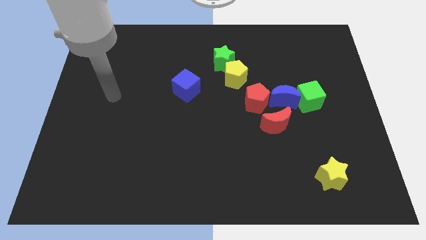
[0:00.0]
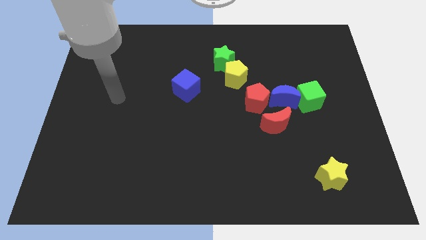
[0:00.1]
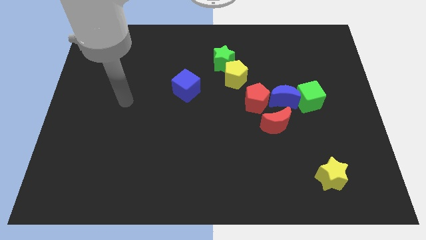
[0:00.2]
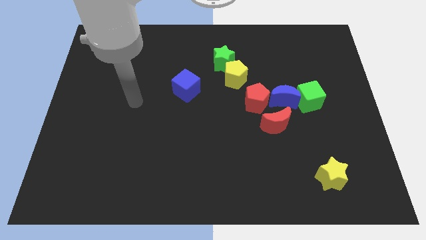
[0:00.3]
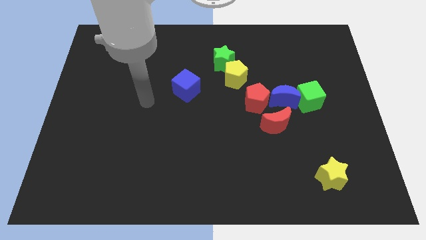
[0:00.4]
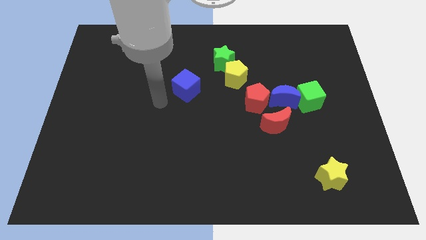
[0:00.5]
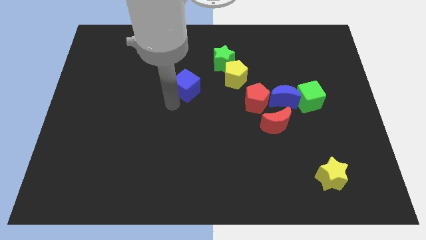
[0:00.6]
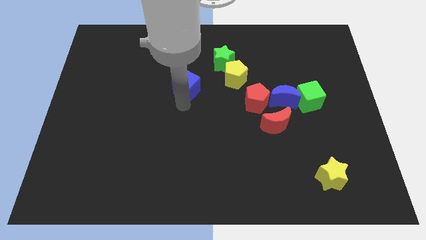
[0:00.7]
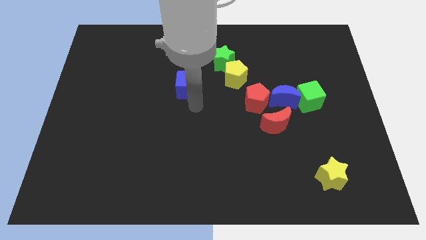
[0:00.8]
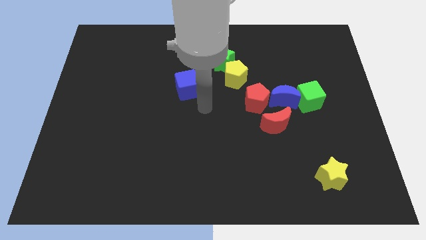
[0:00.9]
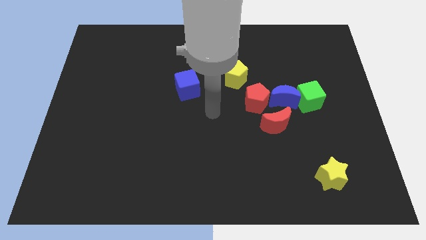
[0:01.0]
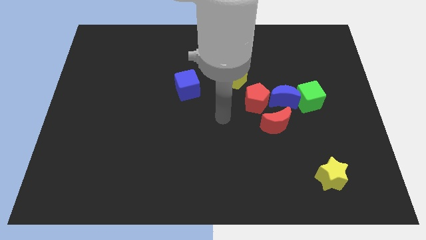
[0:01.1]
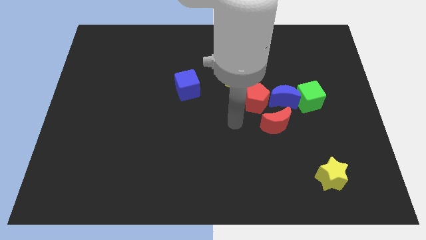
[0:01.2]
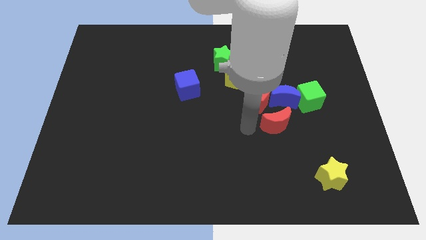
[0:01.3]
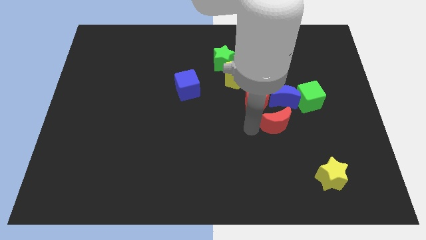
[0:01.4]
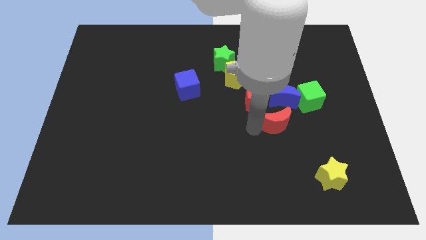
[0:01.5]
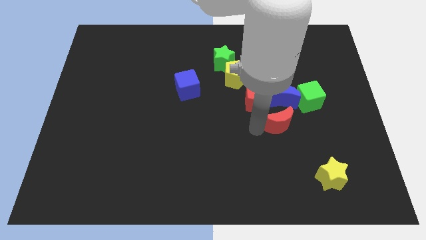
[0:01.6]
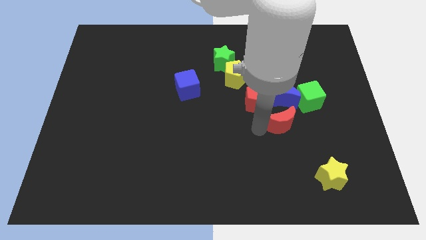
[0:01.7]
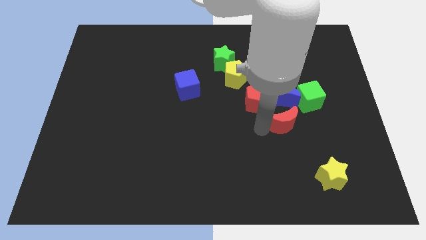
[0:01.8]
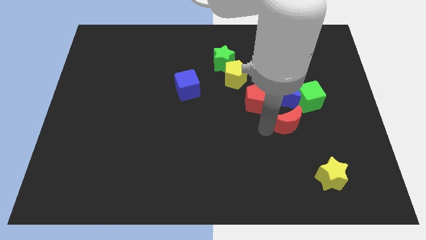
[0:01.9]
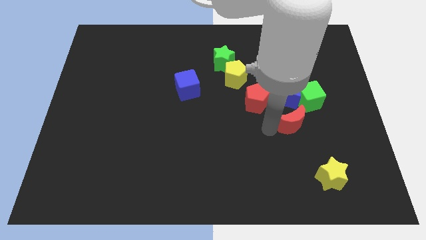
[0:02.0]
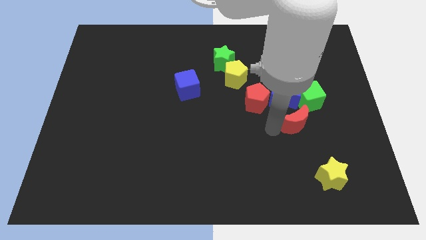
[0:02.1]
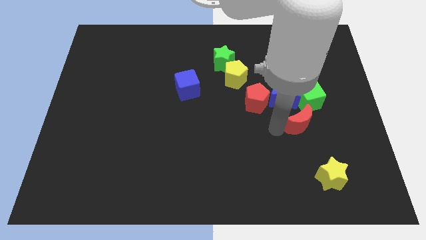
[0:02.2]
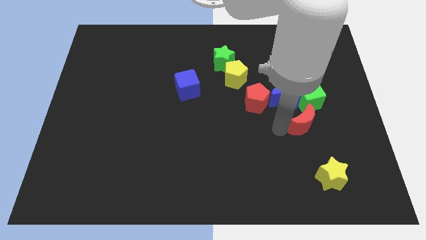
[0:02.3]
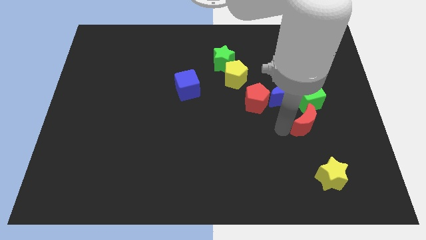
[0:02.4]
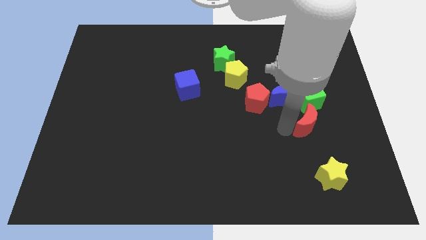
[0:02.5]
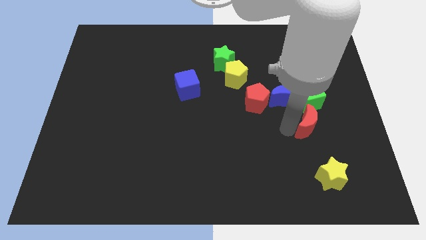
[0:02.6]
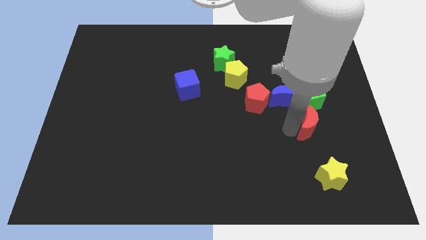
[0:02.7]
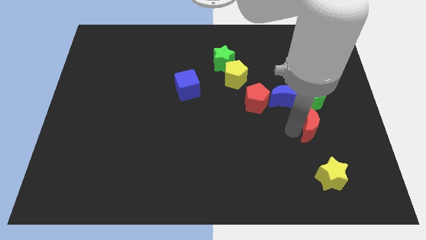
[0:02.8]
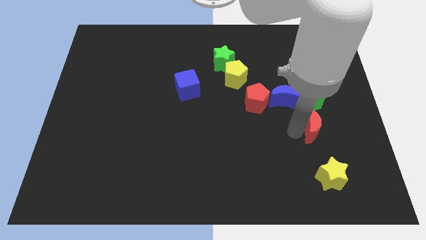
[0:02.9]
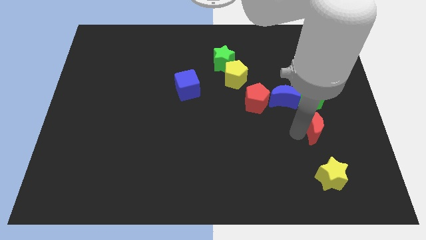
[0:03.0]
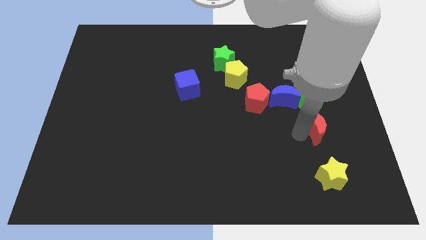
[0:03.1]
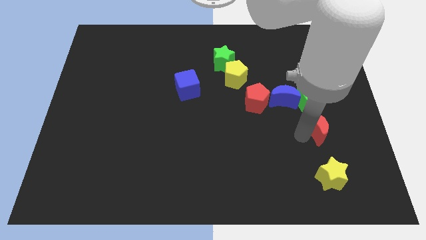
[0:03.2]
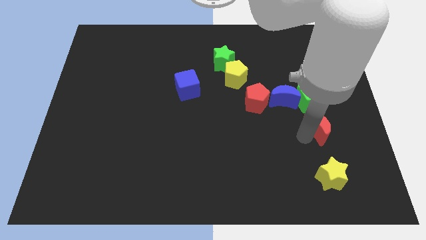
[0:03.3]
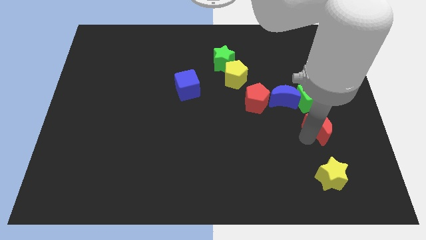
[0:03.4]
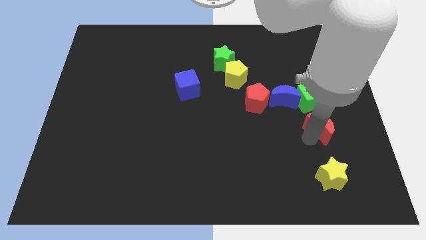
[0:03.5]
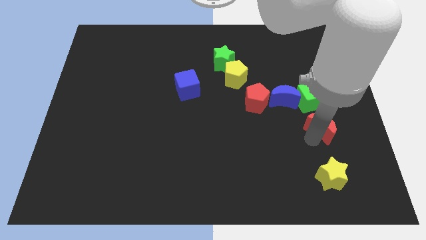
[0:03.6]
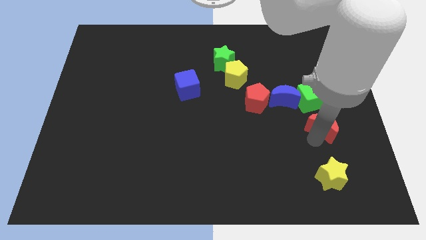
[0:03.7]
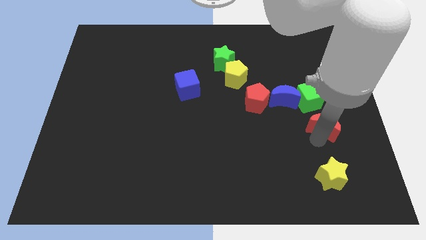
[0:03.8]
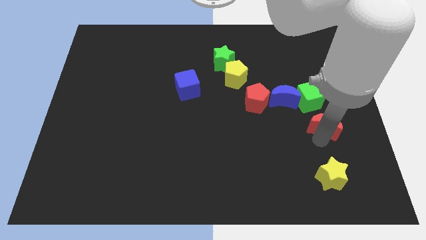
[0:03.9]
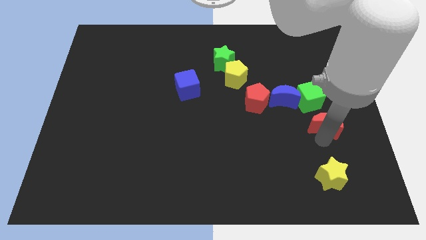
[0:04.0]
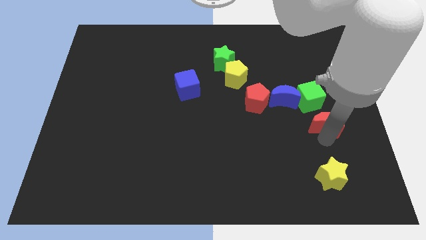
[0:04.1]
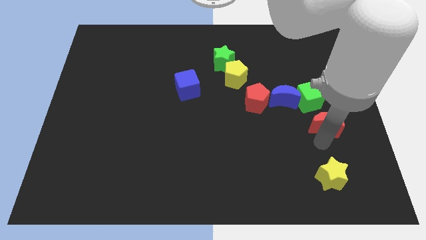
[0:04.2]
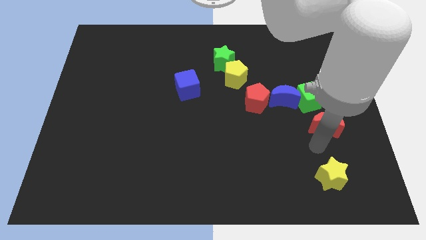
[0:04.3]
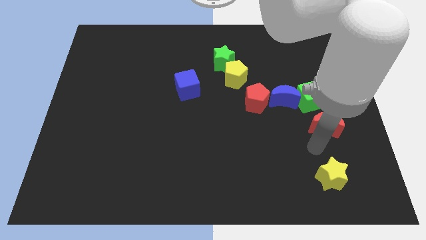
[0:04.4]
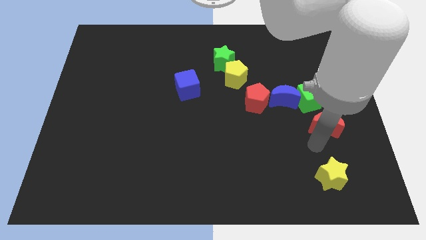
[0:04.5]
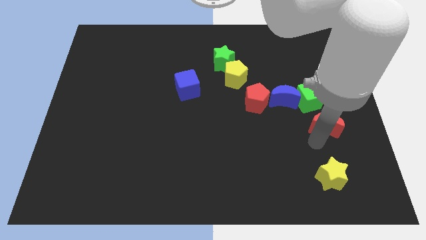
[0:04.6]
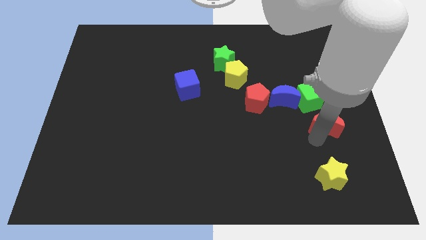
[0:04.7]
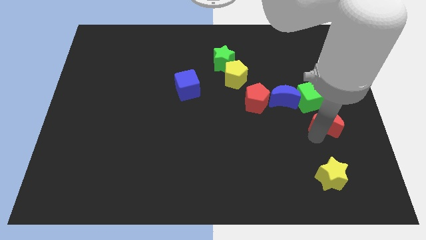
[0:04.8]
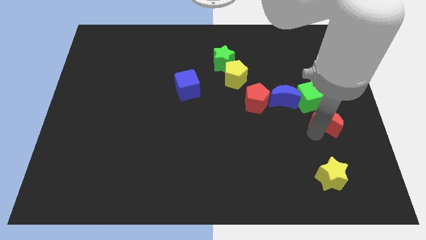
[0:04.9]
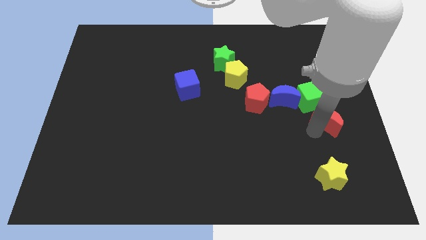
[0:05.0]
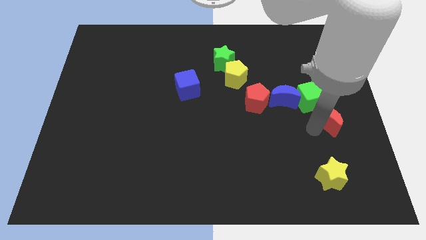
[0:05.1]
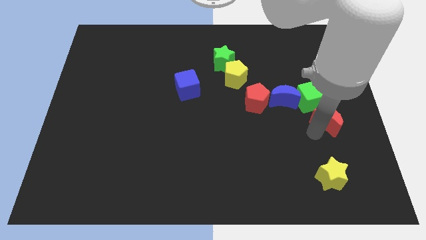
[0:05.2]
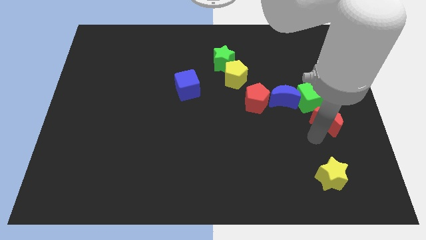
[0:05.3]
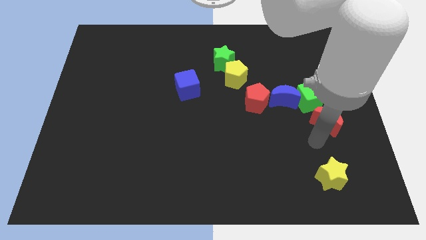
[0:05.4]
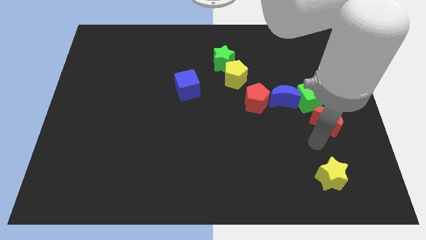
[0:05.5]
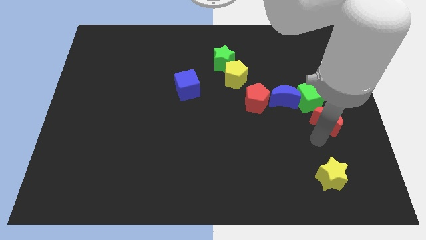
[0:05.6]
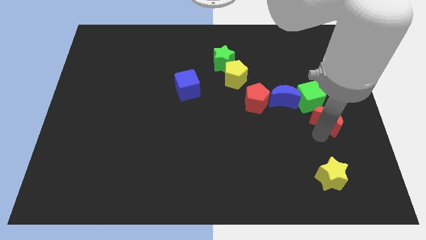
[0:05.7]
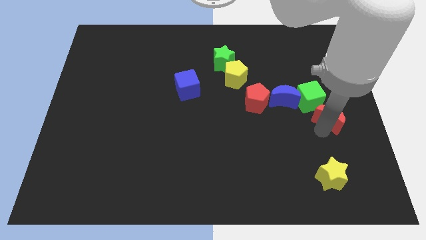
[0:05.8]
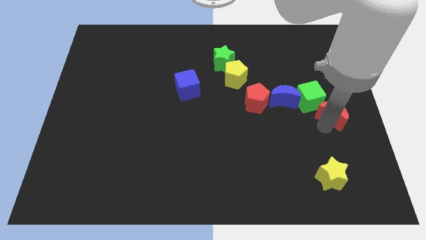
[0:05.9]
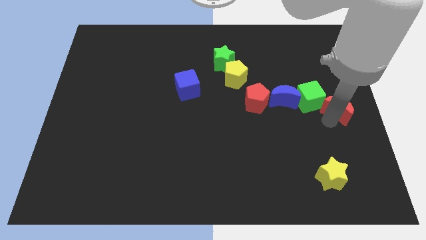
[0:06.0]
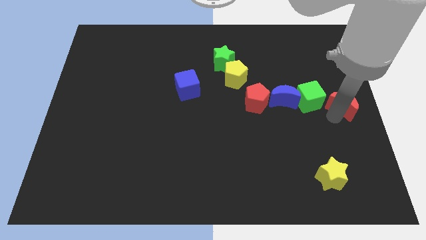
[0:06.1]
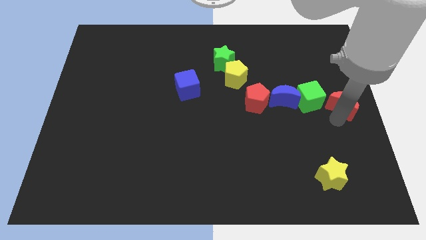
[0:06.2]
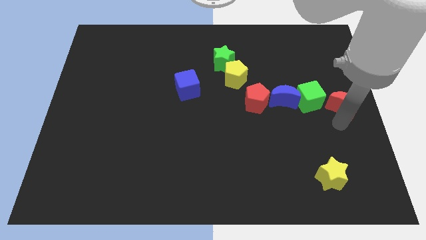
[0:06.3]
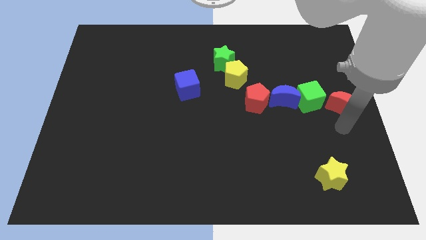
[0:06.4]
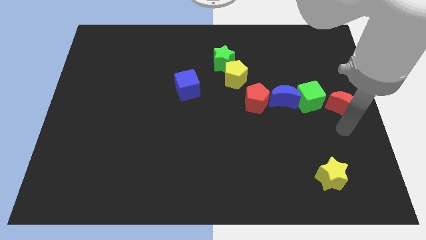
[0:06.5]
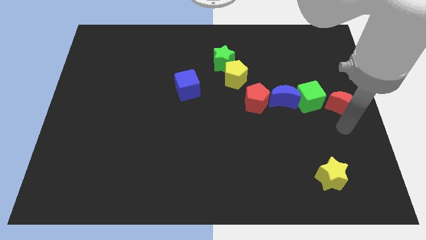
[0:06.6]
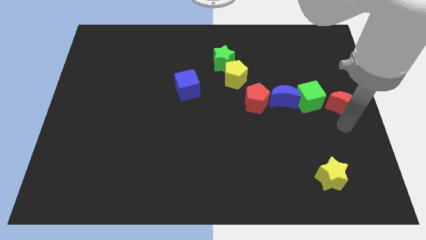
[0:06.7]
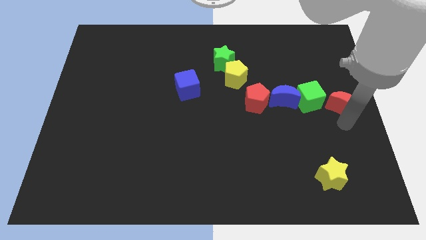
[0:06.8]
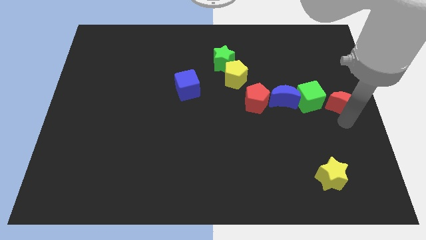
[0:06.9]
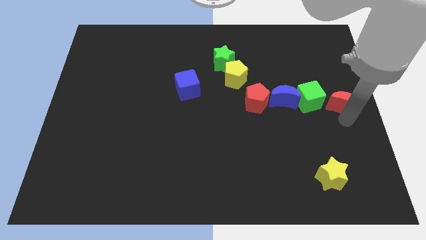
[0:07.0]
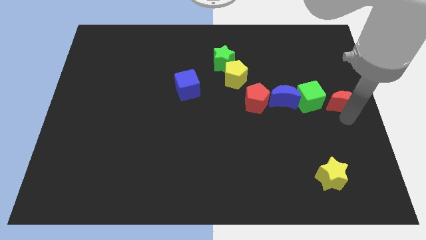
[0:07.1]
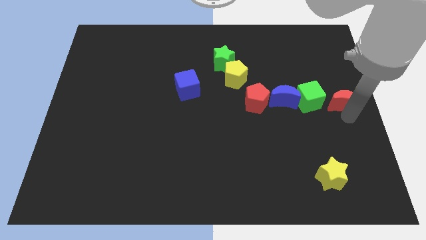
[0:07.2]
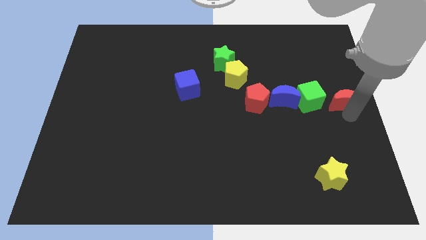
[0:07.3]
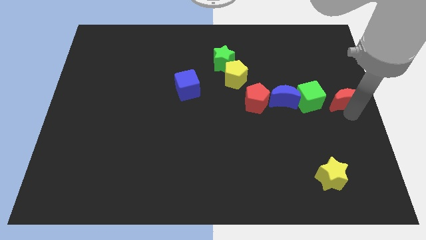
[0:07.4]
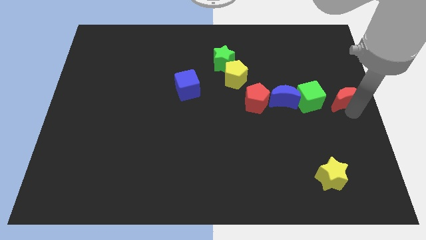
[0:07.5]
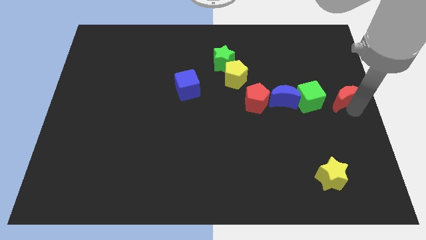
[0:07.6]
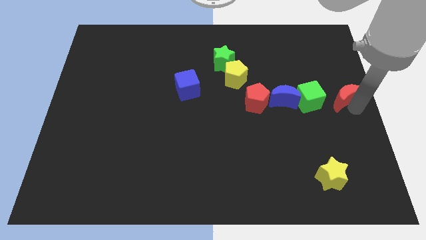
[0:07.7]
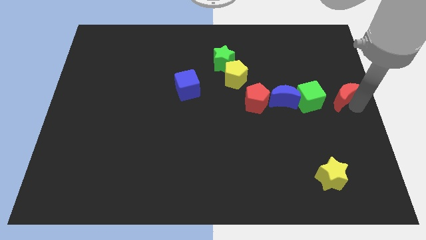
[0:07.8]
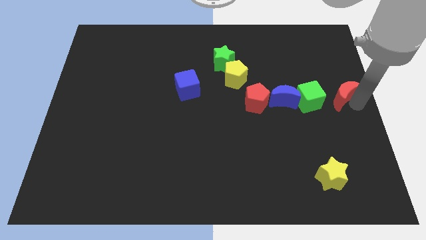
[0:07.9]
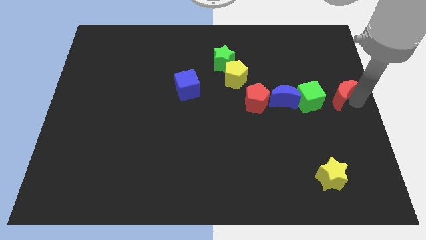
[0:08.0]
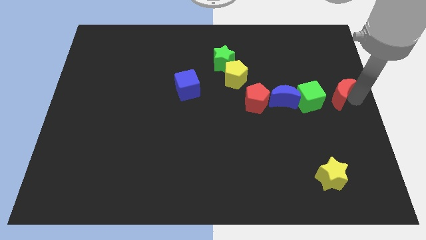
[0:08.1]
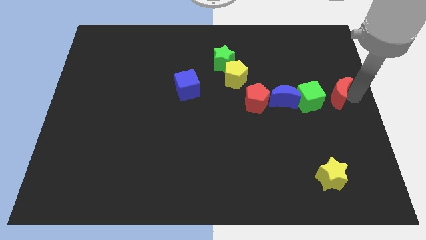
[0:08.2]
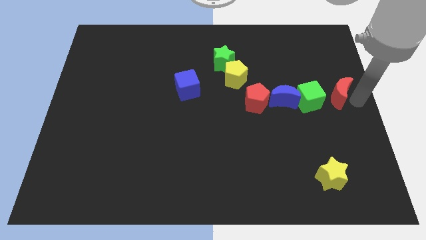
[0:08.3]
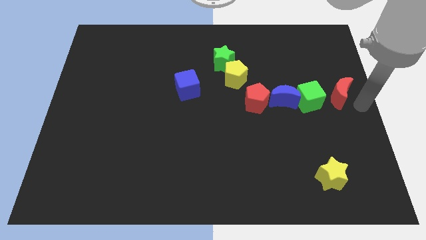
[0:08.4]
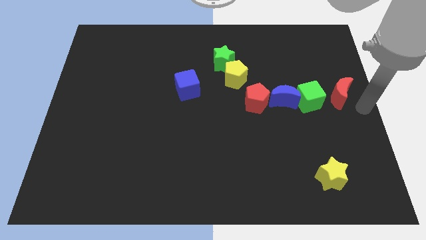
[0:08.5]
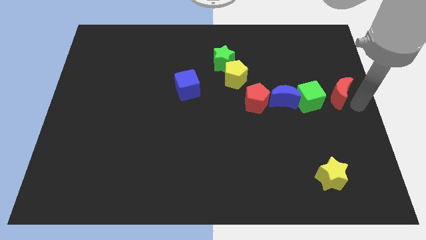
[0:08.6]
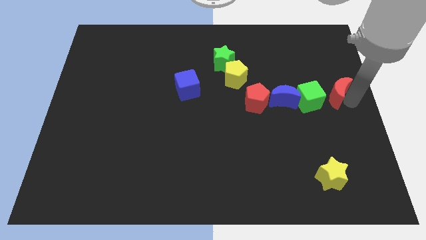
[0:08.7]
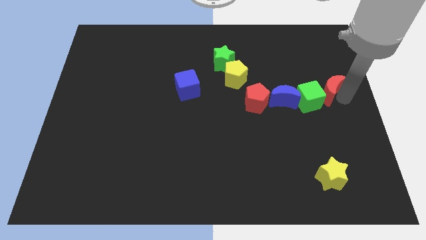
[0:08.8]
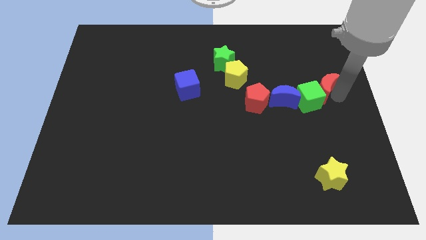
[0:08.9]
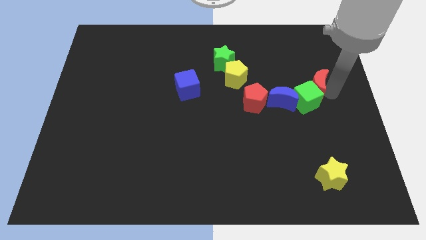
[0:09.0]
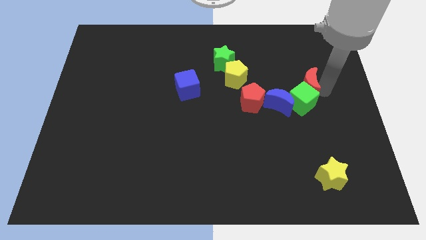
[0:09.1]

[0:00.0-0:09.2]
push the red moon a bit upwards
